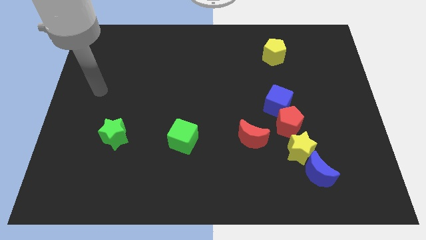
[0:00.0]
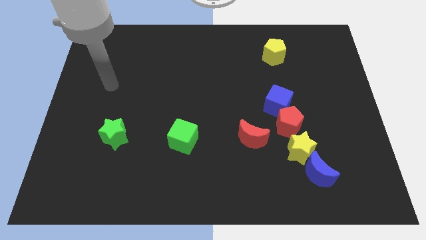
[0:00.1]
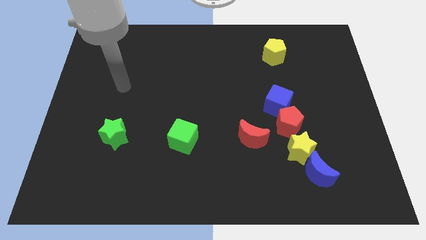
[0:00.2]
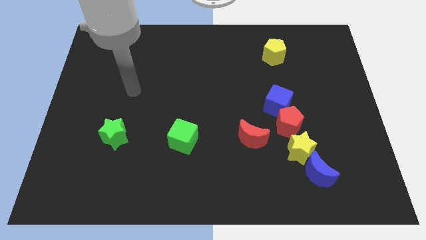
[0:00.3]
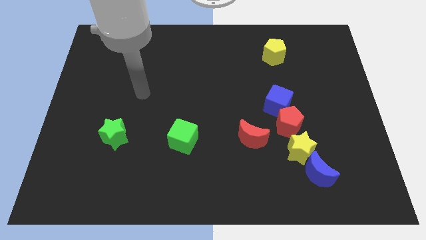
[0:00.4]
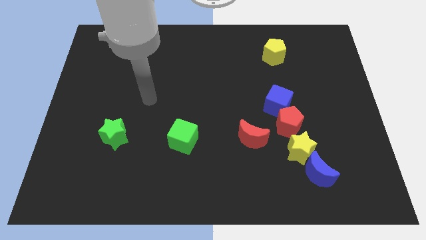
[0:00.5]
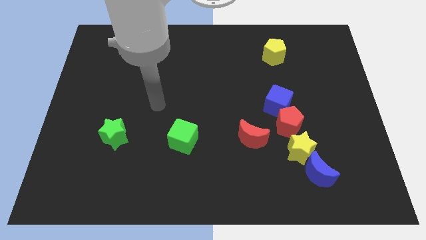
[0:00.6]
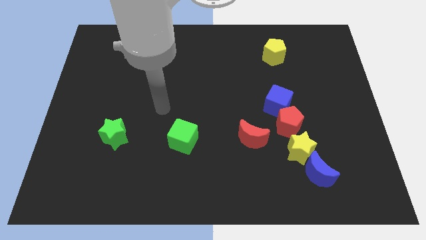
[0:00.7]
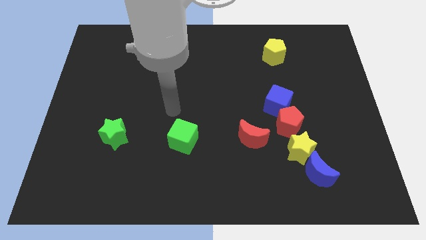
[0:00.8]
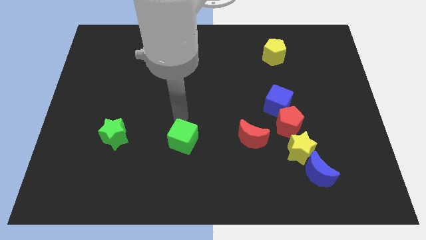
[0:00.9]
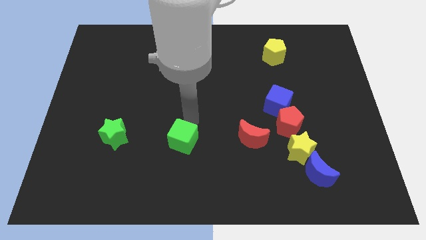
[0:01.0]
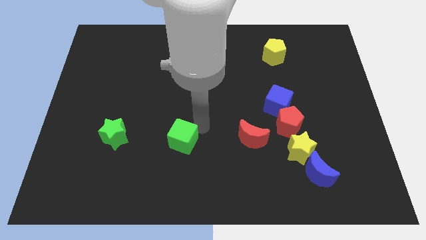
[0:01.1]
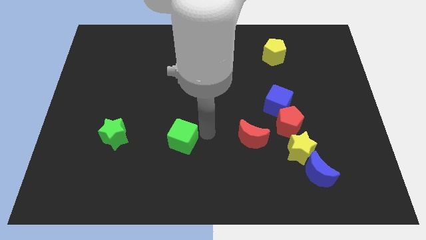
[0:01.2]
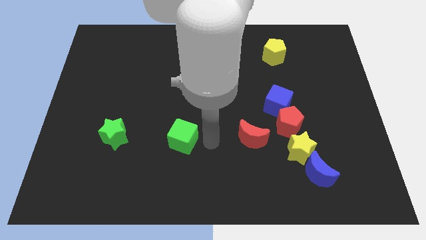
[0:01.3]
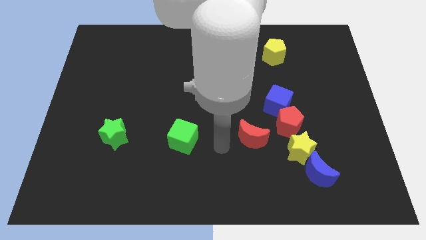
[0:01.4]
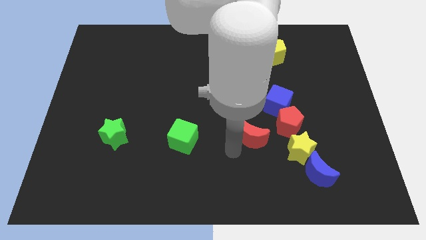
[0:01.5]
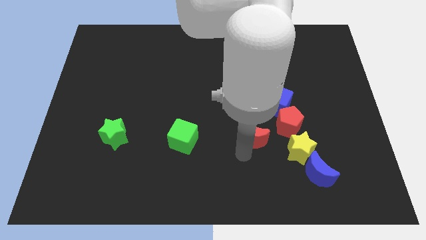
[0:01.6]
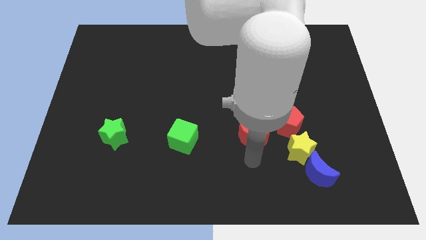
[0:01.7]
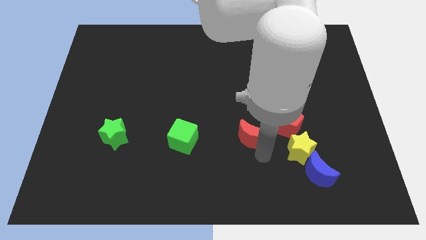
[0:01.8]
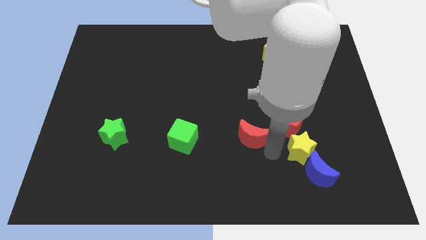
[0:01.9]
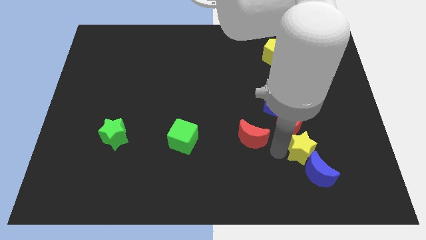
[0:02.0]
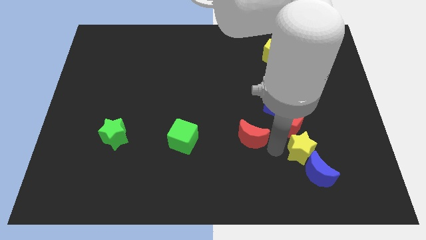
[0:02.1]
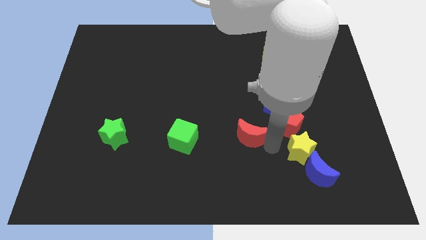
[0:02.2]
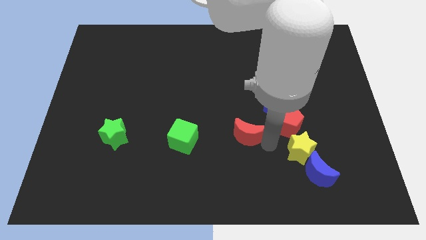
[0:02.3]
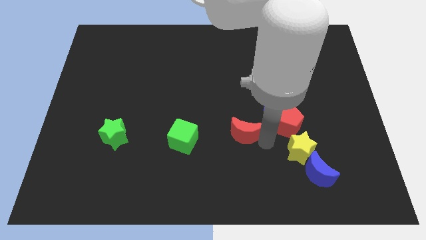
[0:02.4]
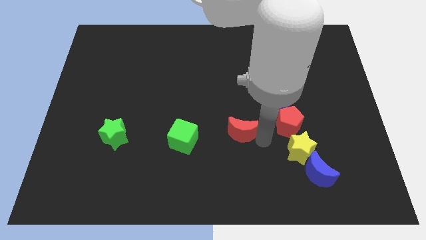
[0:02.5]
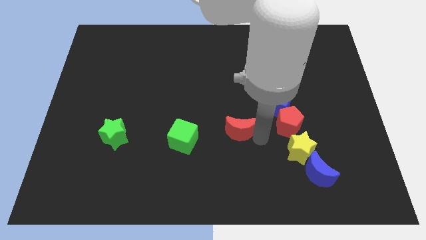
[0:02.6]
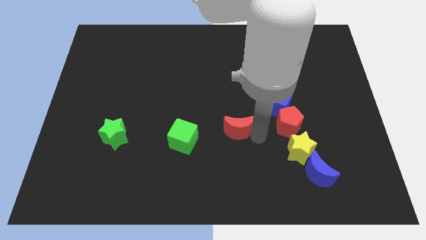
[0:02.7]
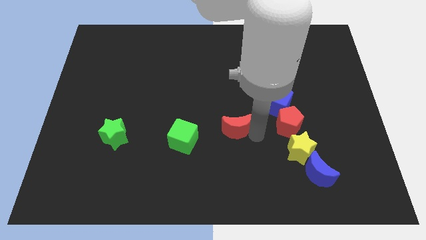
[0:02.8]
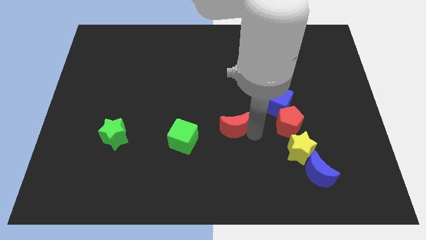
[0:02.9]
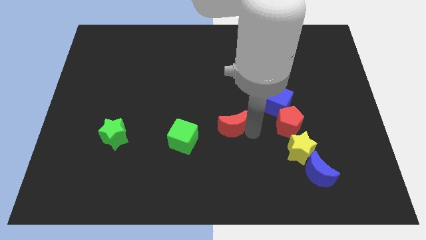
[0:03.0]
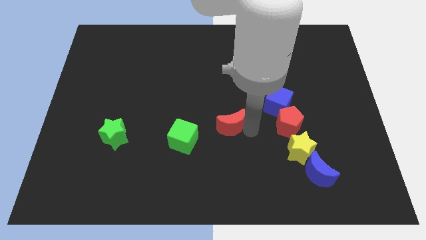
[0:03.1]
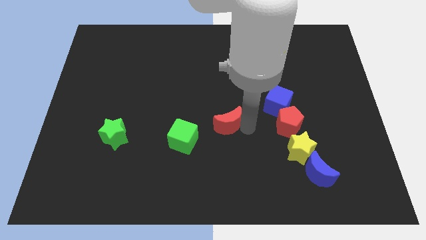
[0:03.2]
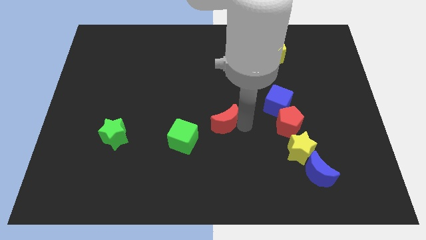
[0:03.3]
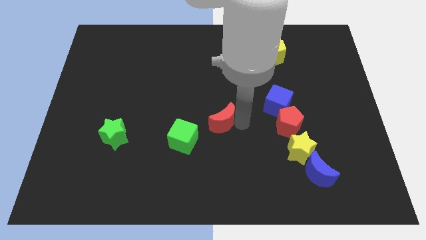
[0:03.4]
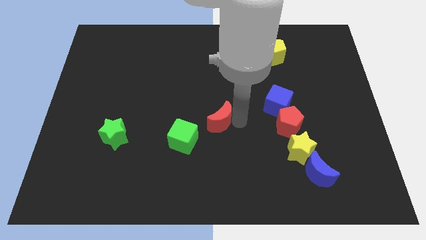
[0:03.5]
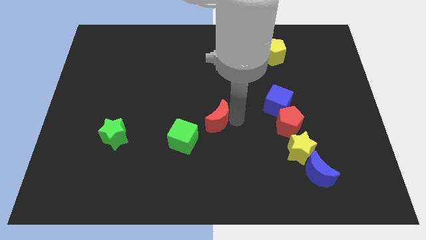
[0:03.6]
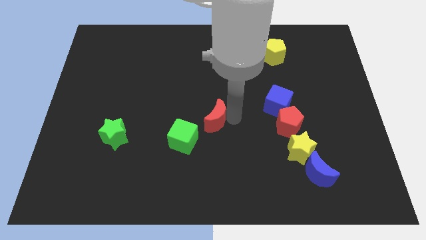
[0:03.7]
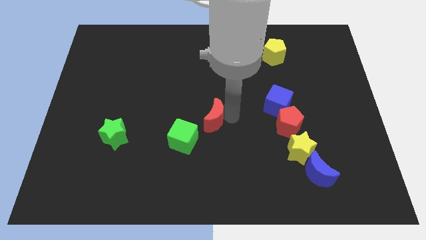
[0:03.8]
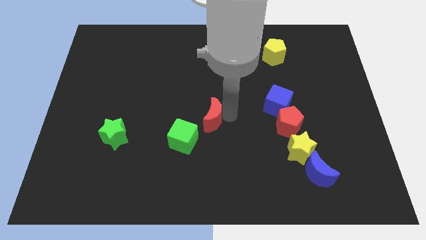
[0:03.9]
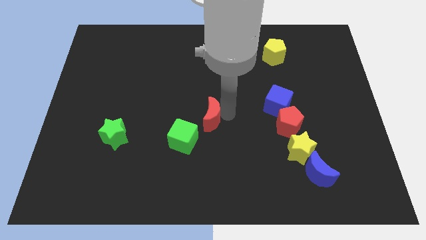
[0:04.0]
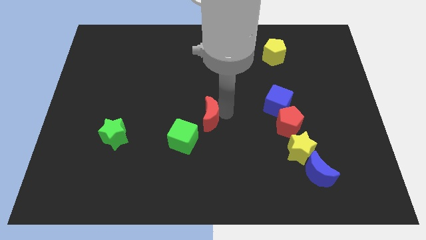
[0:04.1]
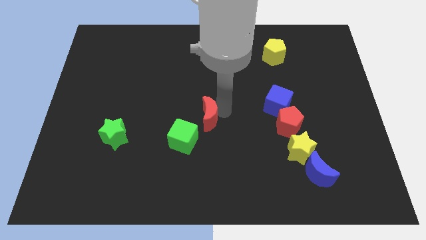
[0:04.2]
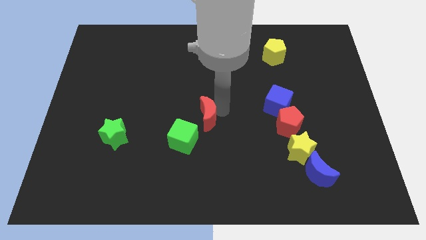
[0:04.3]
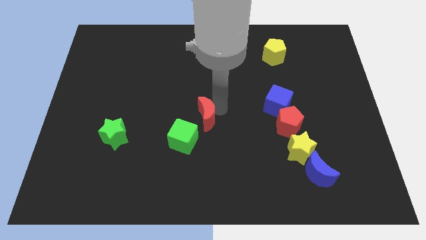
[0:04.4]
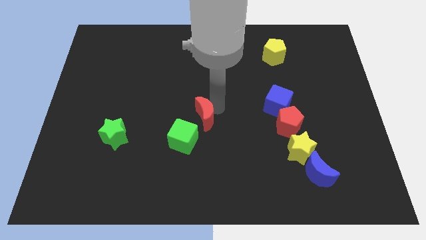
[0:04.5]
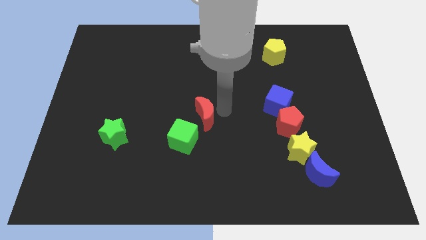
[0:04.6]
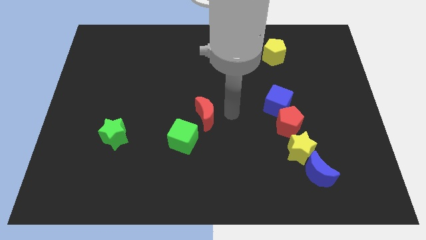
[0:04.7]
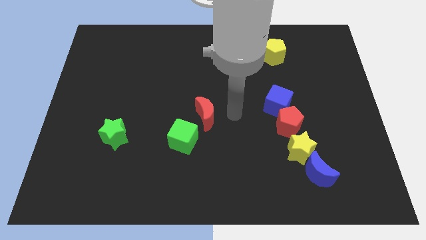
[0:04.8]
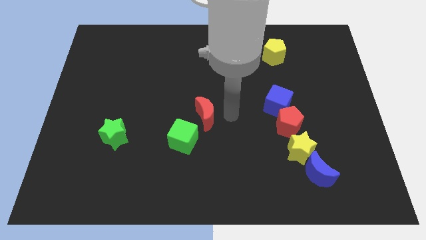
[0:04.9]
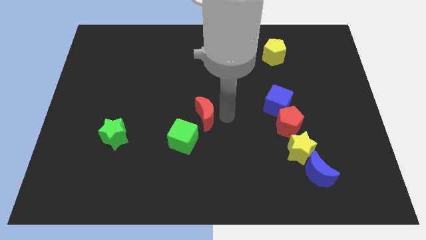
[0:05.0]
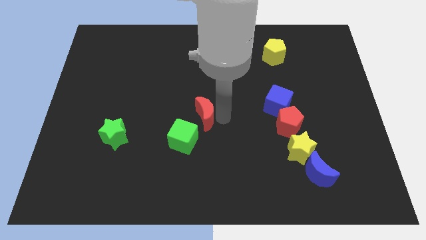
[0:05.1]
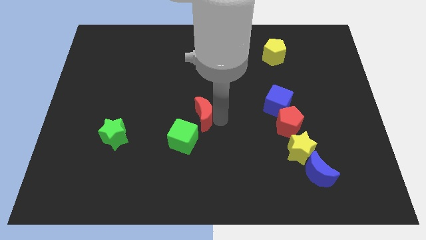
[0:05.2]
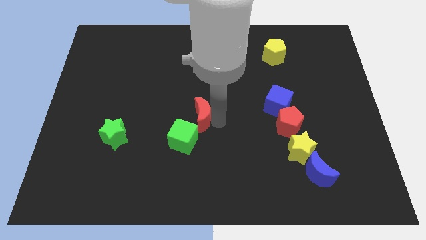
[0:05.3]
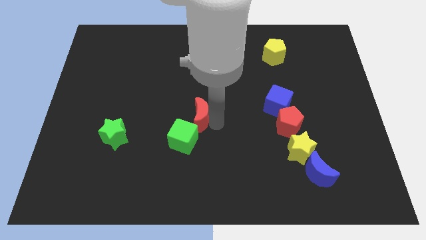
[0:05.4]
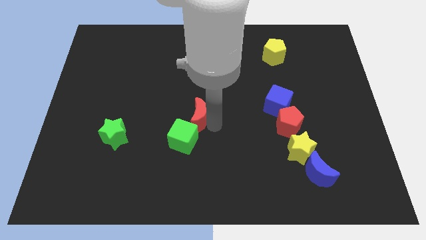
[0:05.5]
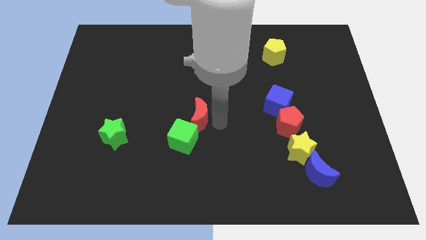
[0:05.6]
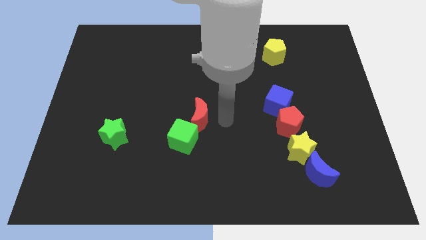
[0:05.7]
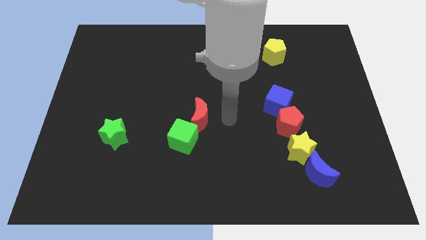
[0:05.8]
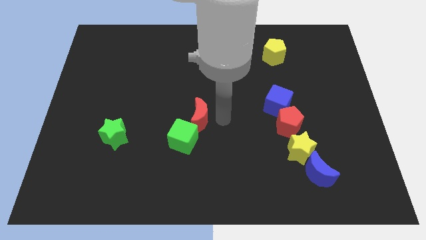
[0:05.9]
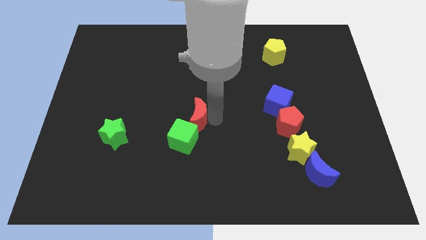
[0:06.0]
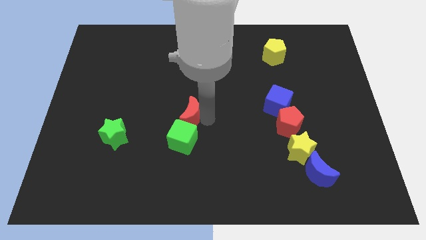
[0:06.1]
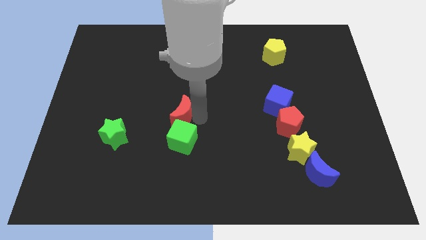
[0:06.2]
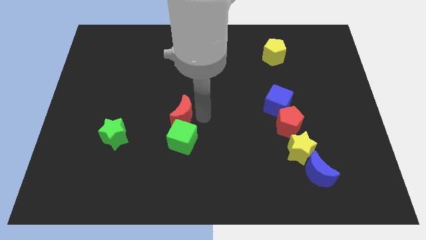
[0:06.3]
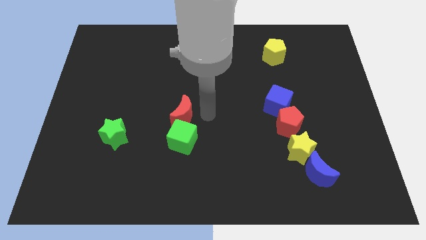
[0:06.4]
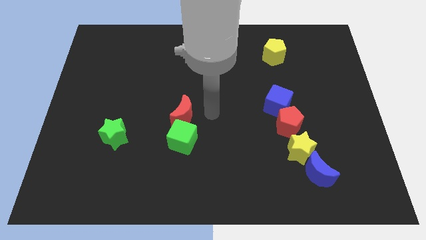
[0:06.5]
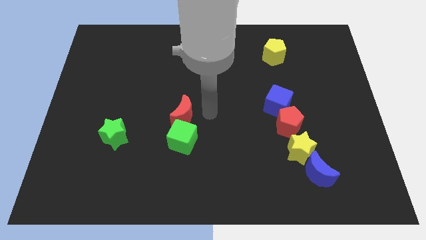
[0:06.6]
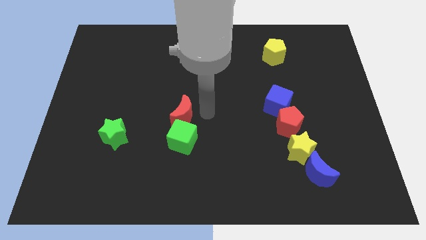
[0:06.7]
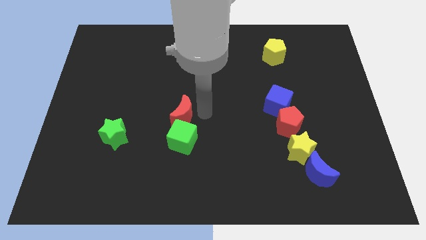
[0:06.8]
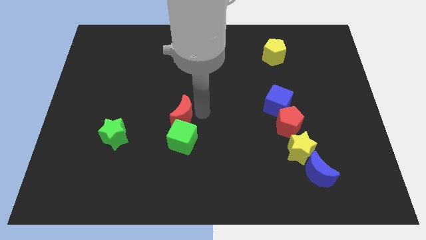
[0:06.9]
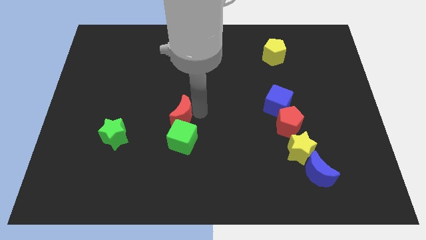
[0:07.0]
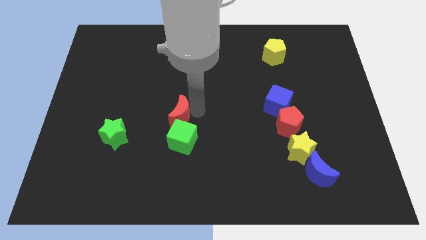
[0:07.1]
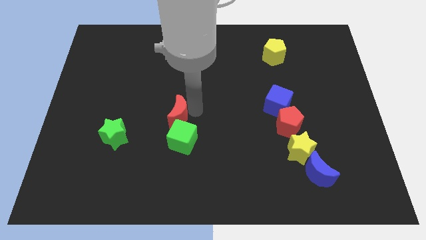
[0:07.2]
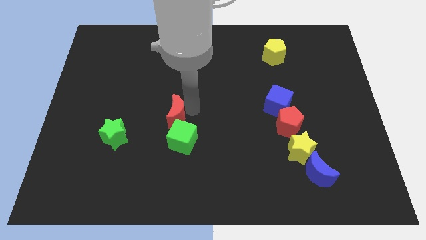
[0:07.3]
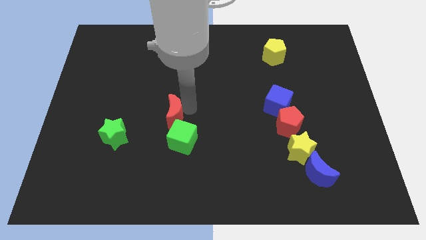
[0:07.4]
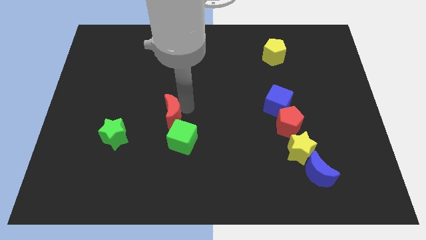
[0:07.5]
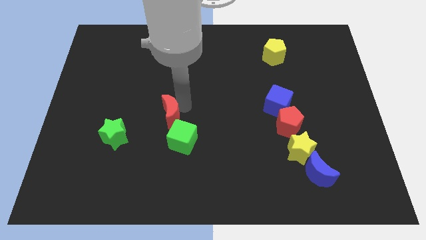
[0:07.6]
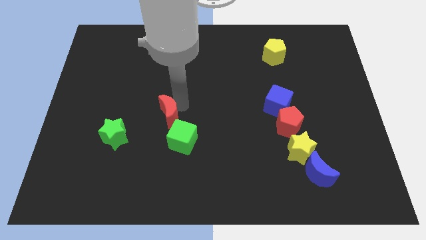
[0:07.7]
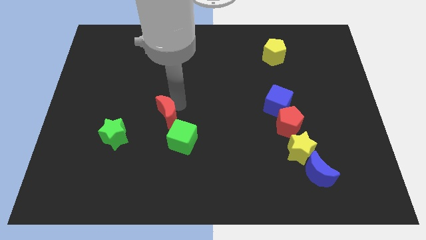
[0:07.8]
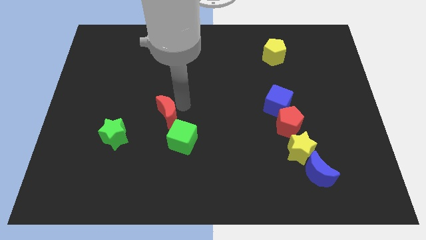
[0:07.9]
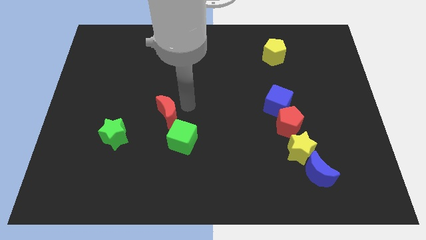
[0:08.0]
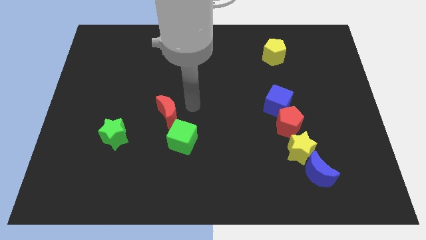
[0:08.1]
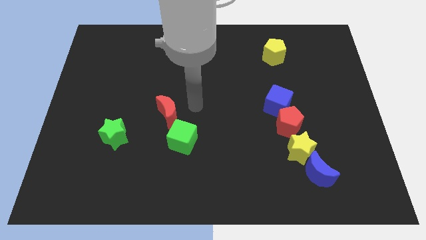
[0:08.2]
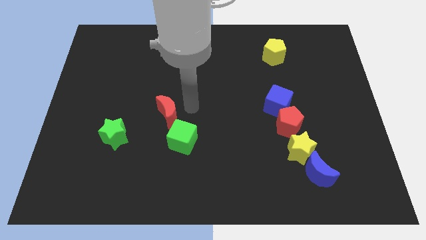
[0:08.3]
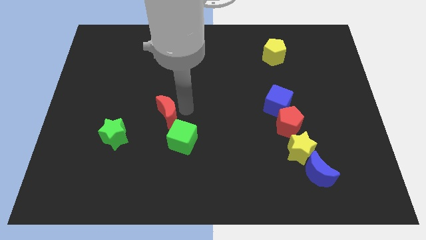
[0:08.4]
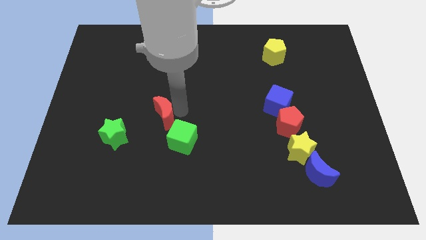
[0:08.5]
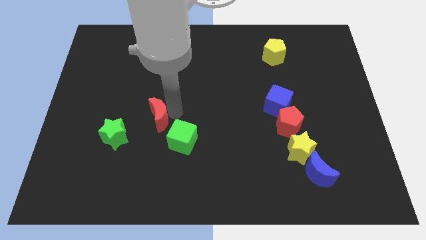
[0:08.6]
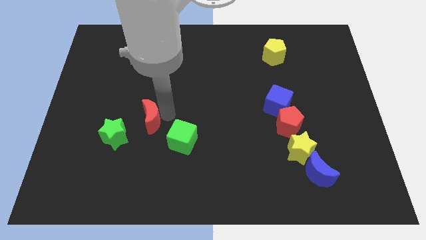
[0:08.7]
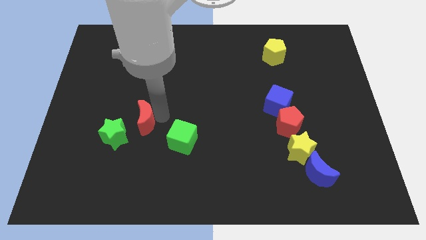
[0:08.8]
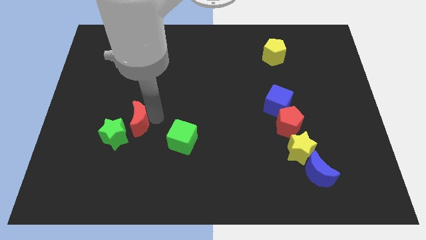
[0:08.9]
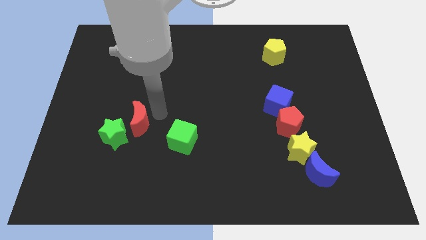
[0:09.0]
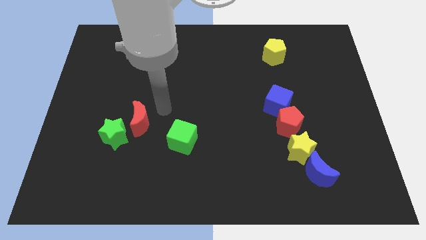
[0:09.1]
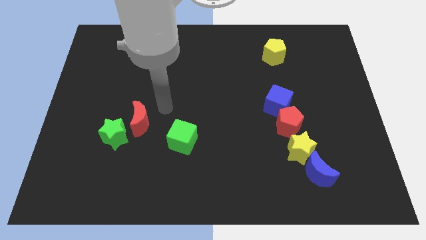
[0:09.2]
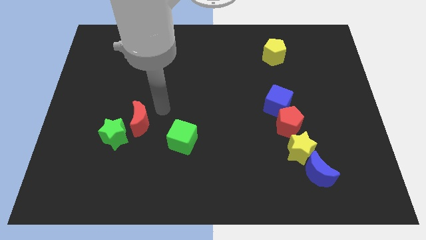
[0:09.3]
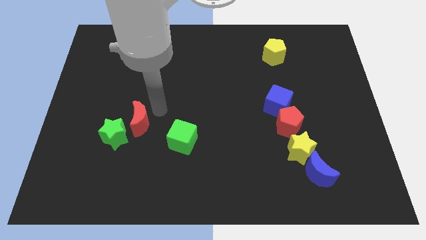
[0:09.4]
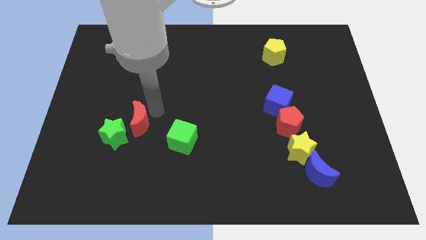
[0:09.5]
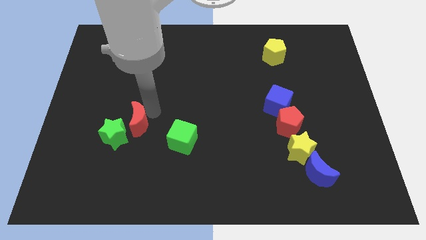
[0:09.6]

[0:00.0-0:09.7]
push the red moon towards the green star
